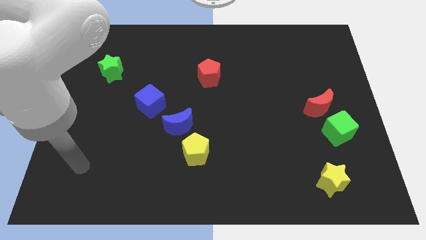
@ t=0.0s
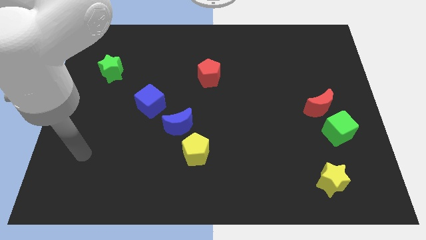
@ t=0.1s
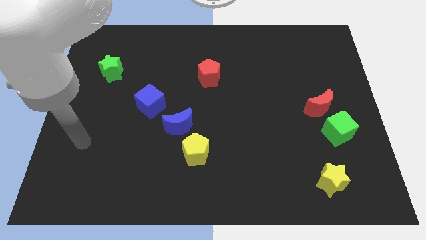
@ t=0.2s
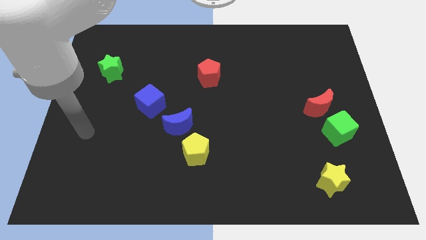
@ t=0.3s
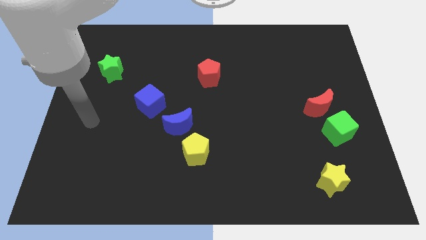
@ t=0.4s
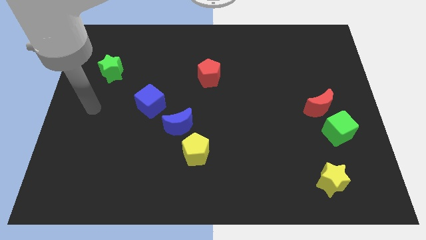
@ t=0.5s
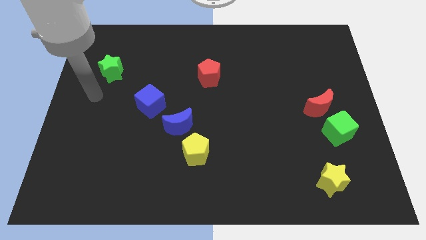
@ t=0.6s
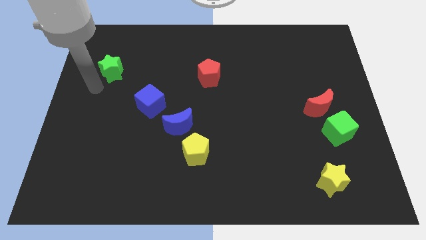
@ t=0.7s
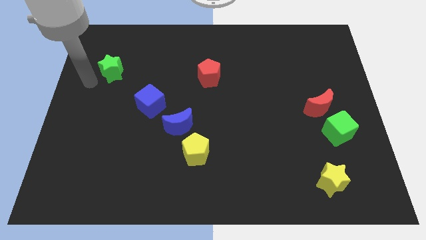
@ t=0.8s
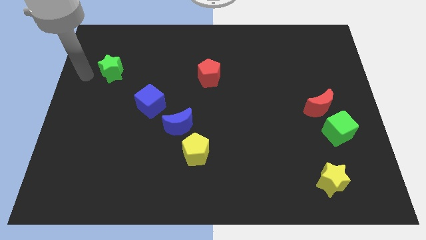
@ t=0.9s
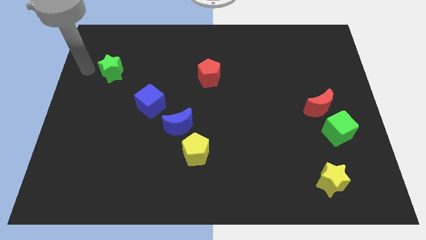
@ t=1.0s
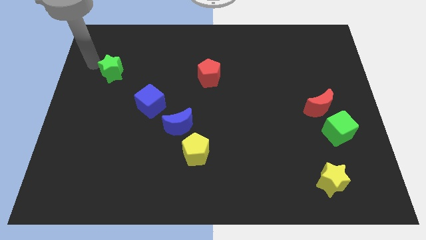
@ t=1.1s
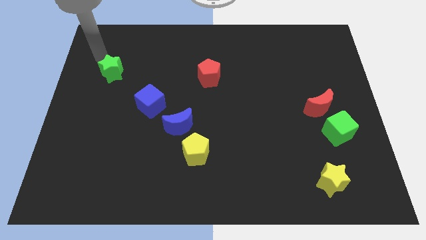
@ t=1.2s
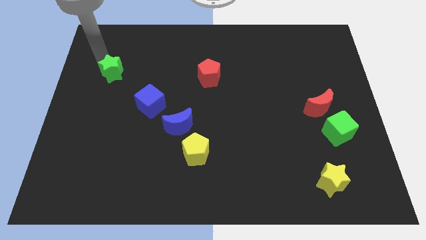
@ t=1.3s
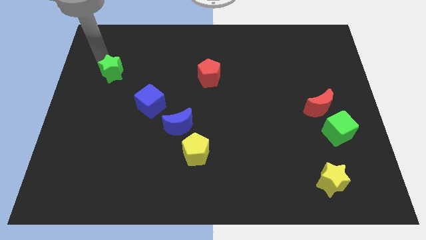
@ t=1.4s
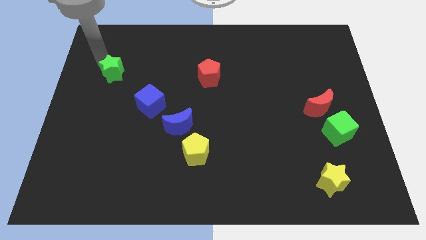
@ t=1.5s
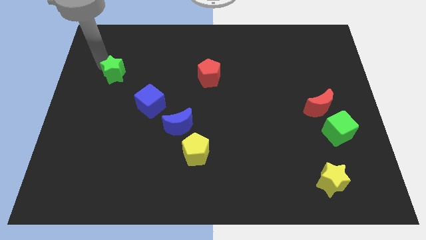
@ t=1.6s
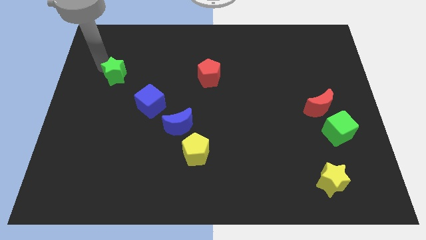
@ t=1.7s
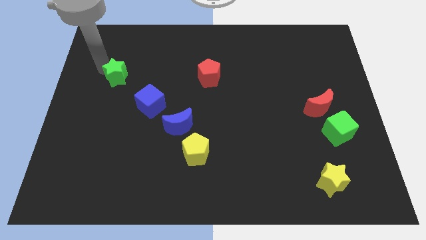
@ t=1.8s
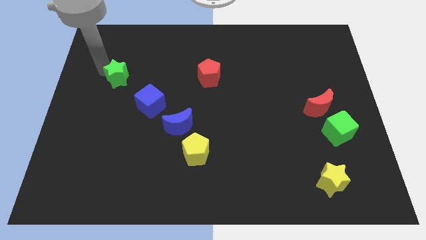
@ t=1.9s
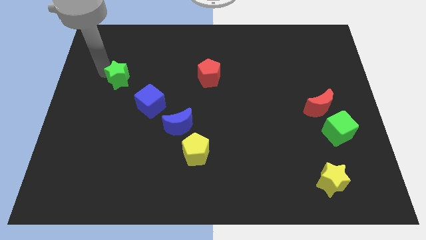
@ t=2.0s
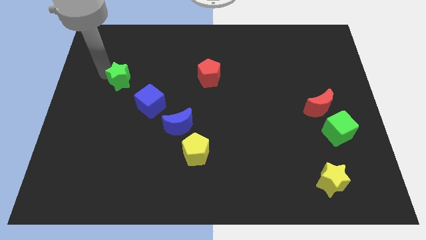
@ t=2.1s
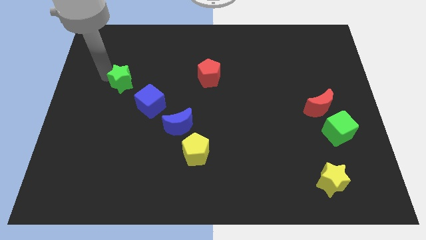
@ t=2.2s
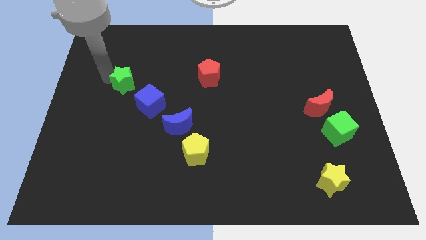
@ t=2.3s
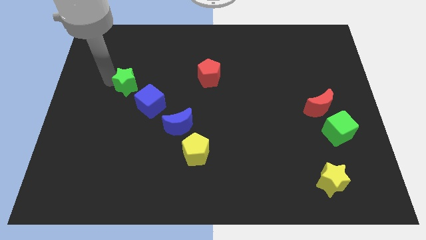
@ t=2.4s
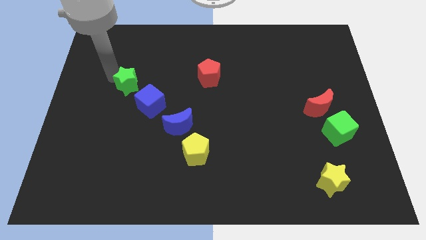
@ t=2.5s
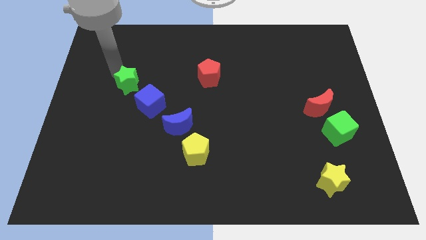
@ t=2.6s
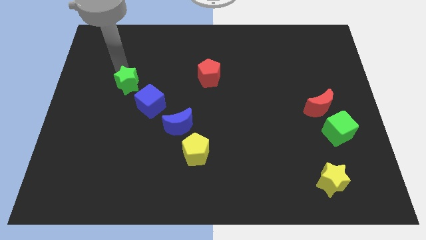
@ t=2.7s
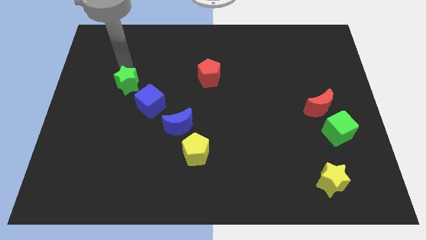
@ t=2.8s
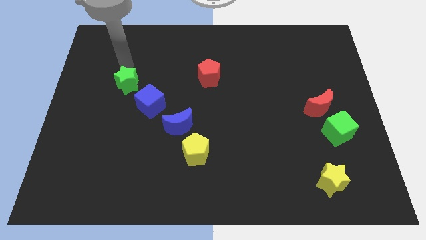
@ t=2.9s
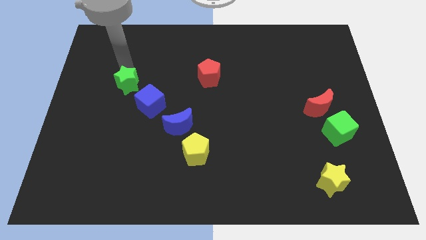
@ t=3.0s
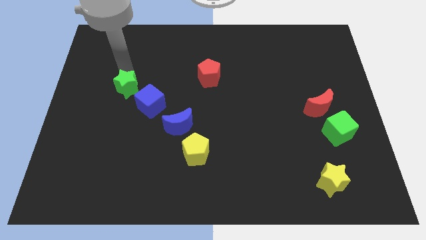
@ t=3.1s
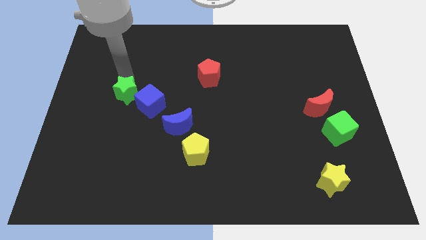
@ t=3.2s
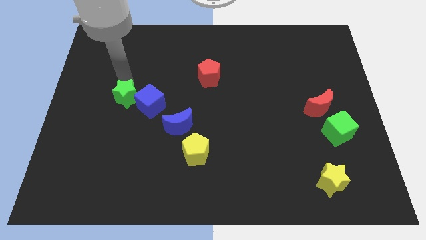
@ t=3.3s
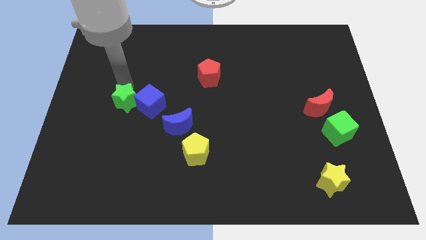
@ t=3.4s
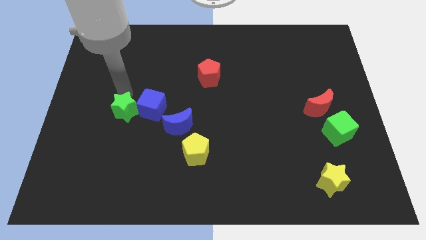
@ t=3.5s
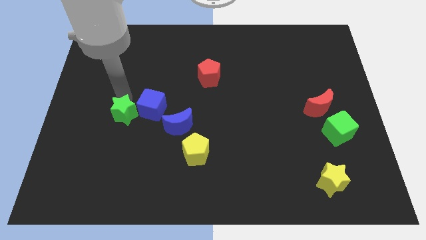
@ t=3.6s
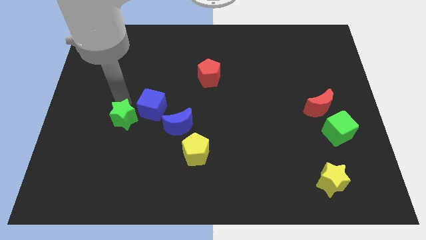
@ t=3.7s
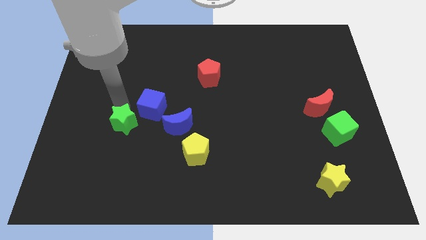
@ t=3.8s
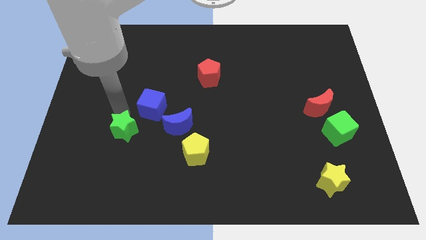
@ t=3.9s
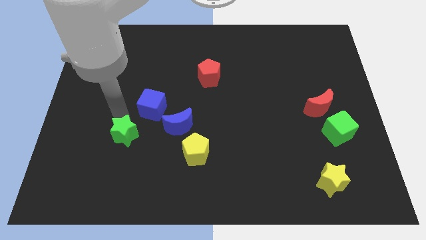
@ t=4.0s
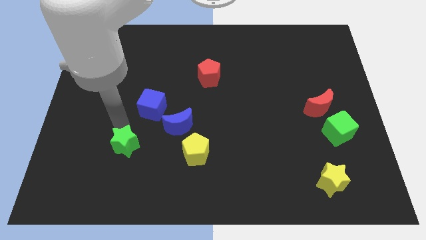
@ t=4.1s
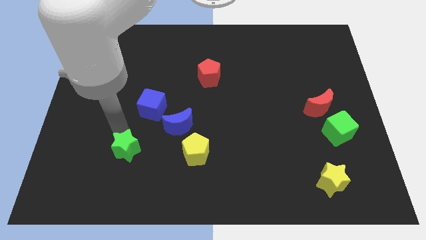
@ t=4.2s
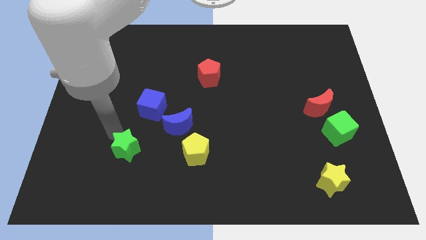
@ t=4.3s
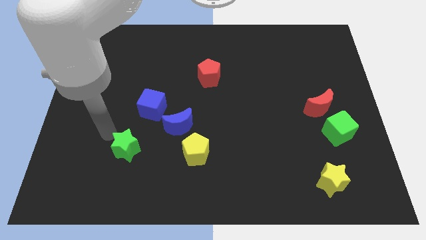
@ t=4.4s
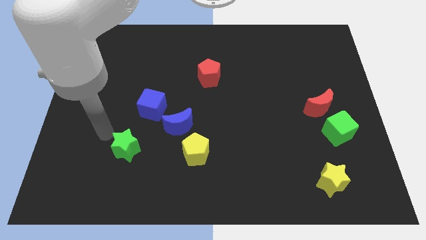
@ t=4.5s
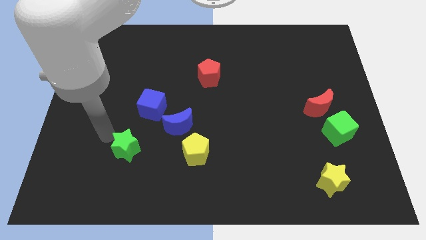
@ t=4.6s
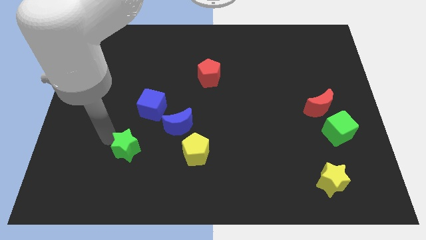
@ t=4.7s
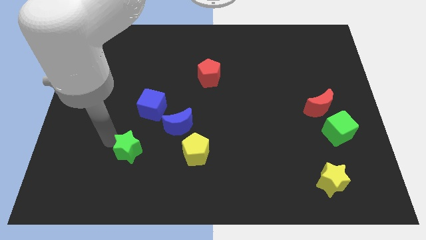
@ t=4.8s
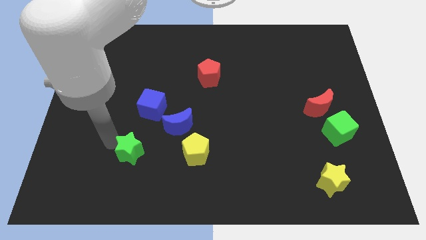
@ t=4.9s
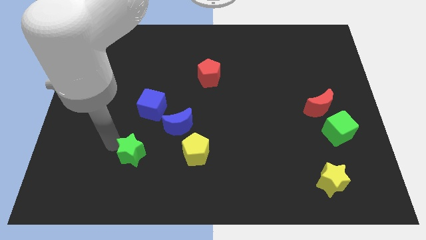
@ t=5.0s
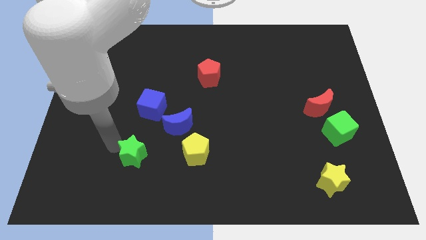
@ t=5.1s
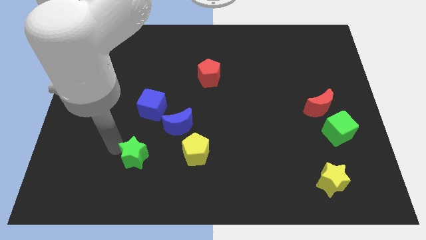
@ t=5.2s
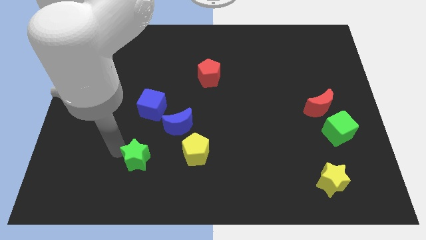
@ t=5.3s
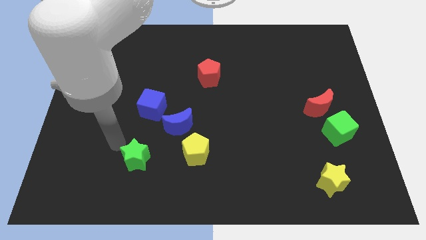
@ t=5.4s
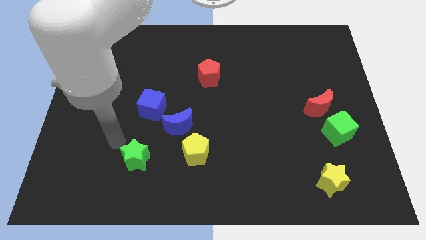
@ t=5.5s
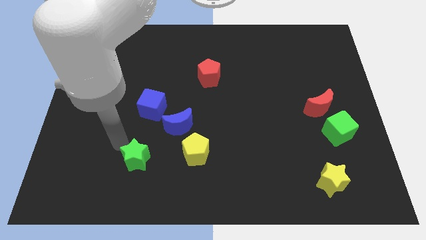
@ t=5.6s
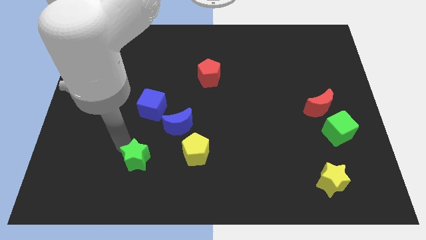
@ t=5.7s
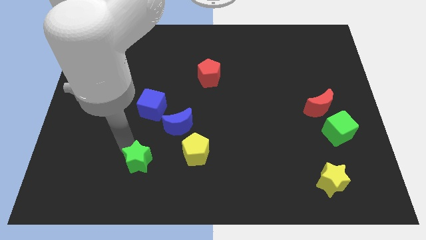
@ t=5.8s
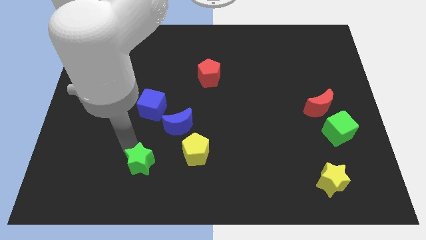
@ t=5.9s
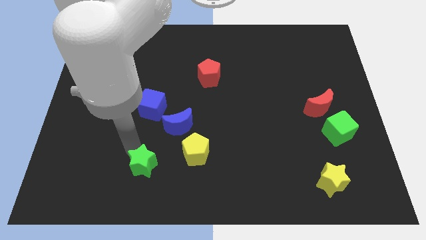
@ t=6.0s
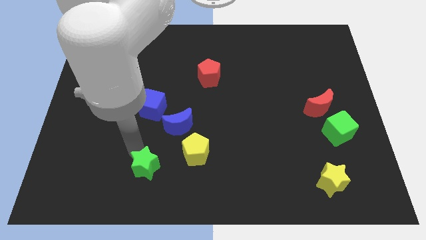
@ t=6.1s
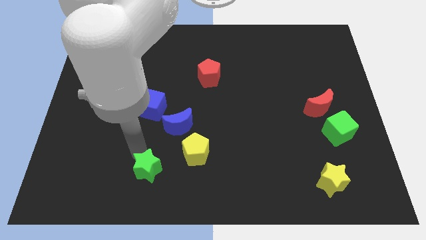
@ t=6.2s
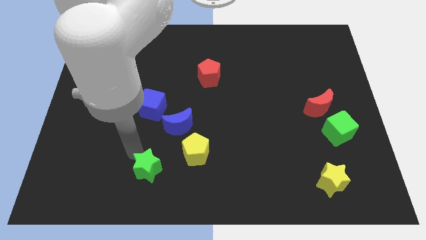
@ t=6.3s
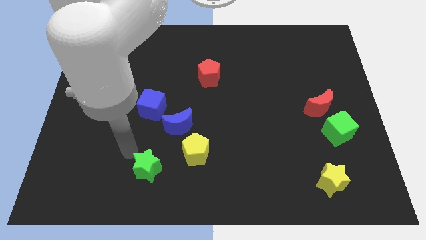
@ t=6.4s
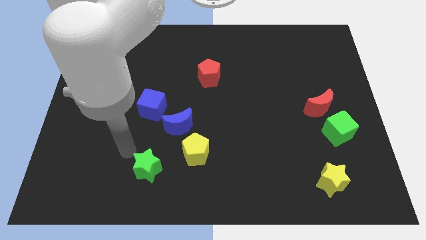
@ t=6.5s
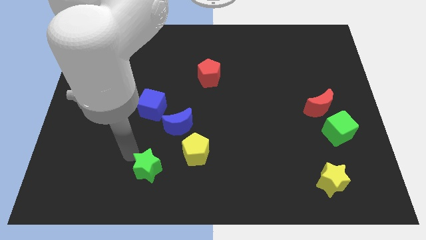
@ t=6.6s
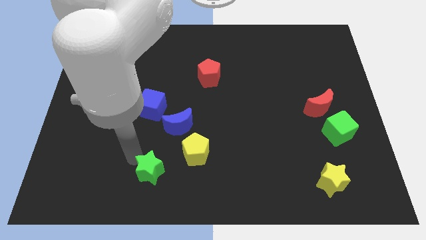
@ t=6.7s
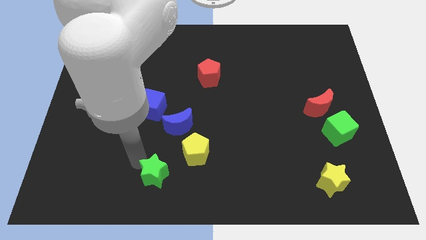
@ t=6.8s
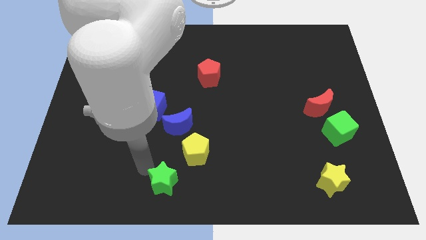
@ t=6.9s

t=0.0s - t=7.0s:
put the green star to the bottom
